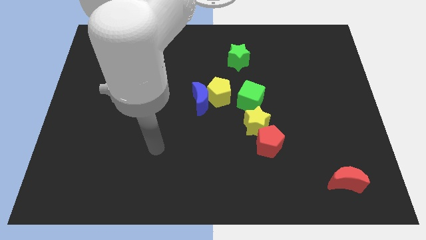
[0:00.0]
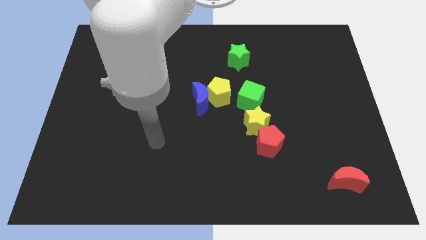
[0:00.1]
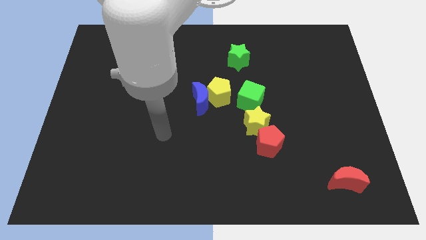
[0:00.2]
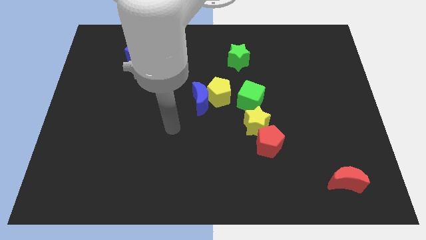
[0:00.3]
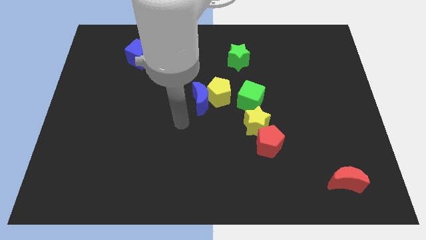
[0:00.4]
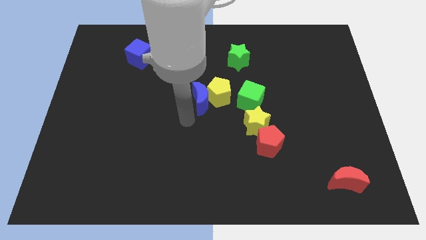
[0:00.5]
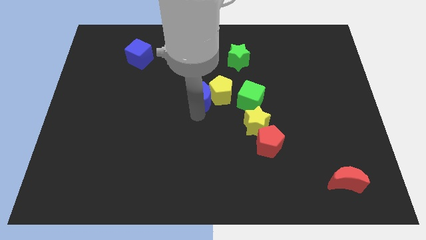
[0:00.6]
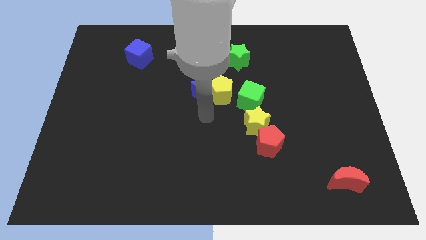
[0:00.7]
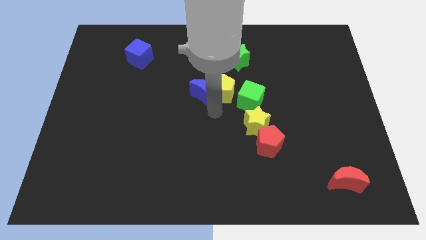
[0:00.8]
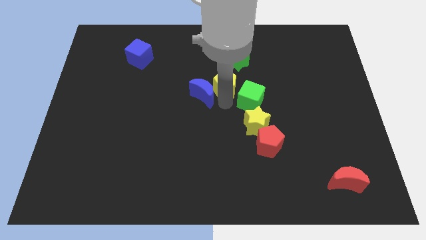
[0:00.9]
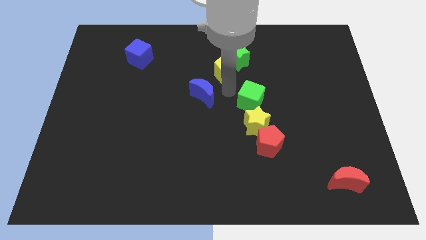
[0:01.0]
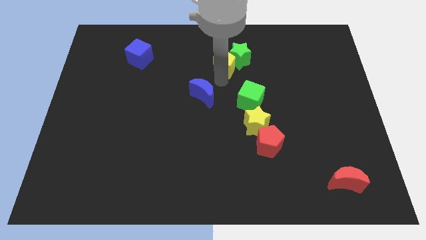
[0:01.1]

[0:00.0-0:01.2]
move the blue moon away from the yellow pentagon

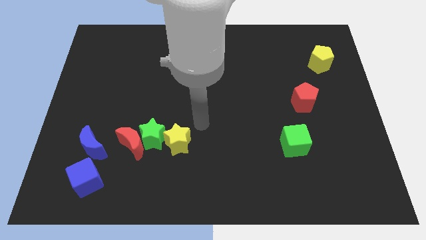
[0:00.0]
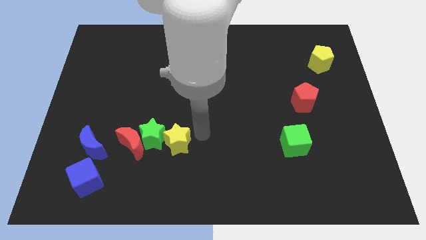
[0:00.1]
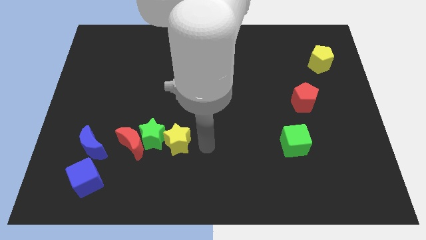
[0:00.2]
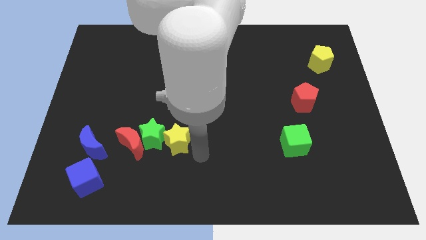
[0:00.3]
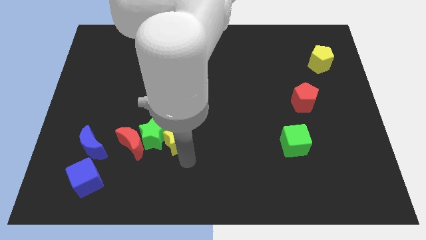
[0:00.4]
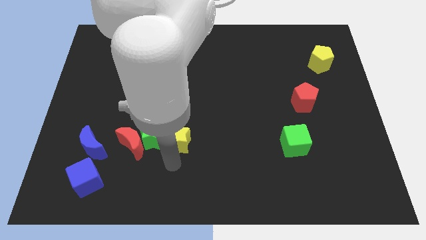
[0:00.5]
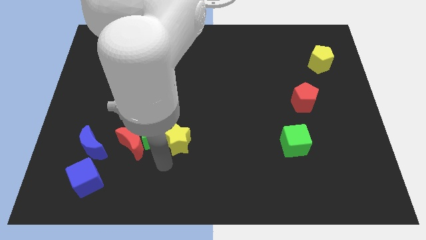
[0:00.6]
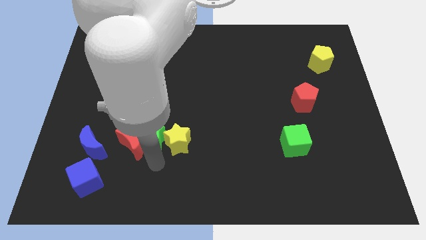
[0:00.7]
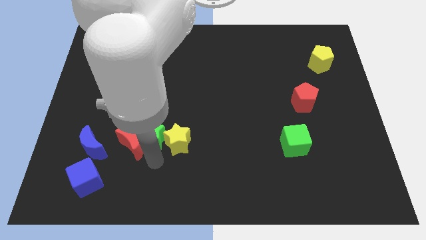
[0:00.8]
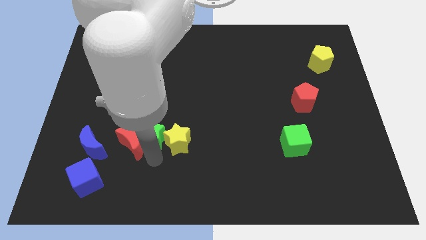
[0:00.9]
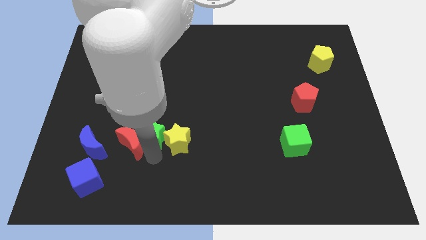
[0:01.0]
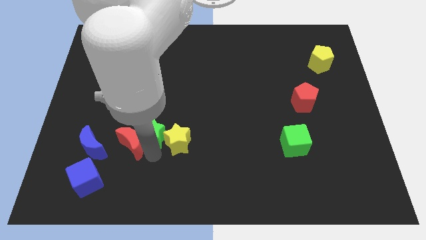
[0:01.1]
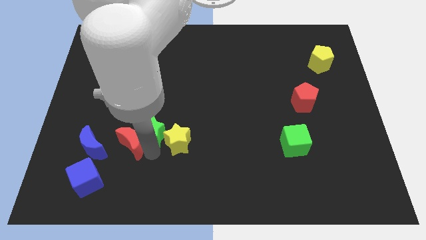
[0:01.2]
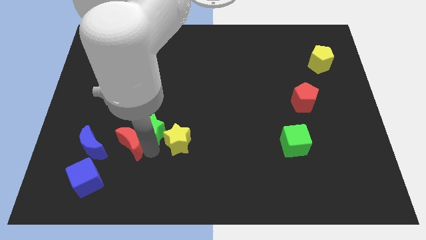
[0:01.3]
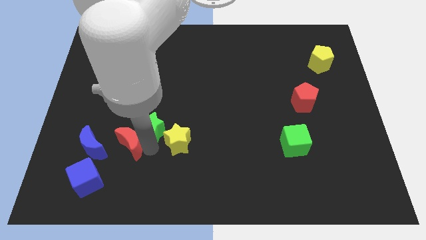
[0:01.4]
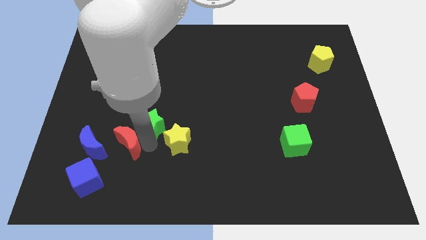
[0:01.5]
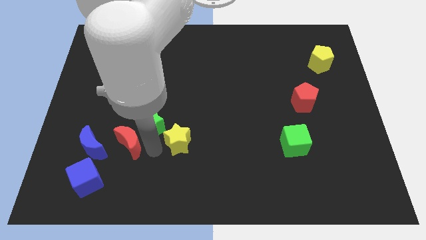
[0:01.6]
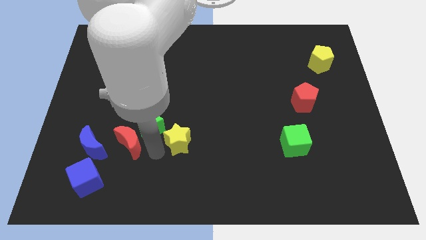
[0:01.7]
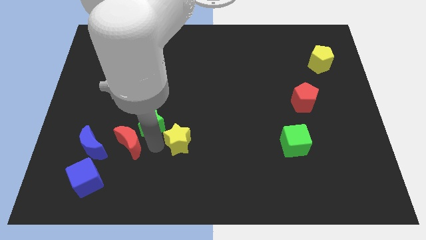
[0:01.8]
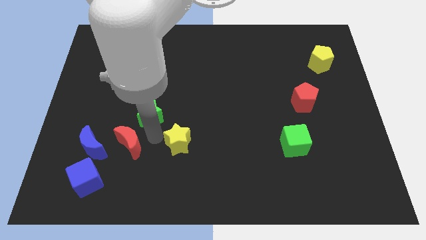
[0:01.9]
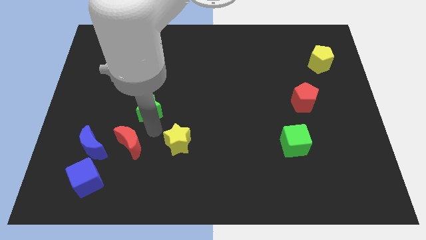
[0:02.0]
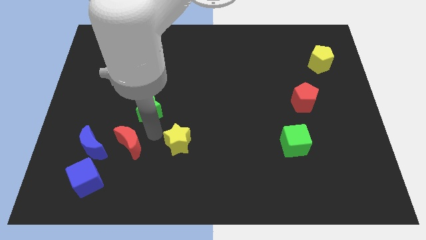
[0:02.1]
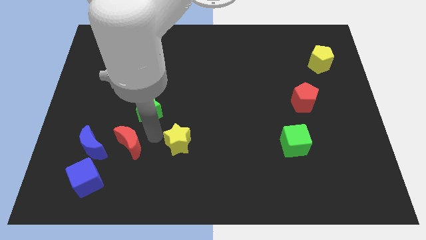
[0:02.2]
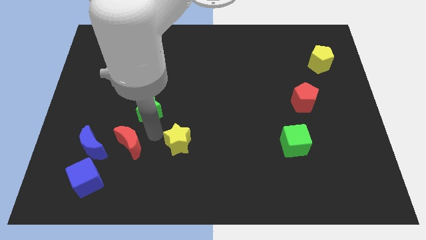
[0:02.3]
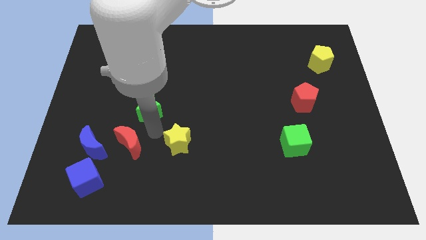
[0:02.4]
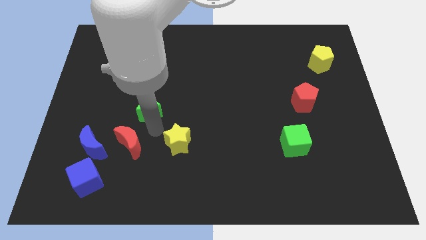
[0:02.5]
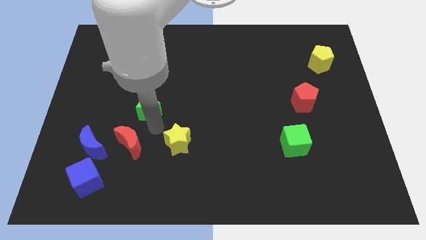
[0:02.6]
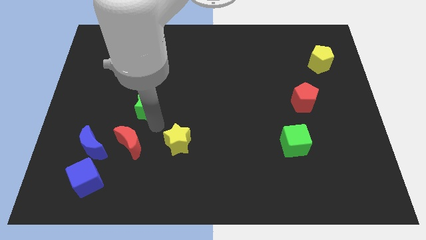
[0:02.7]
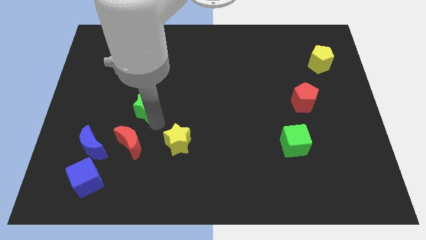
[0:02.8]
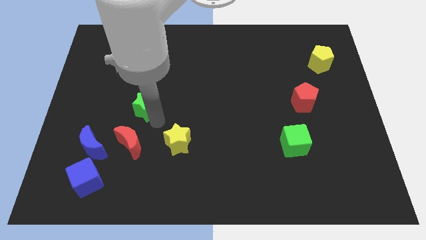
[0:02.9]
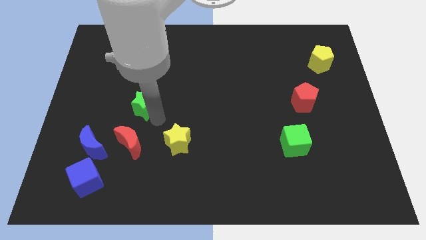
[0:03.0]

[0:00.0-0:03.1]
separate the green star from the red moon and yellow star

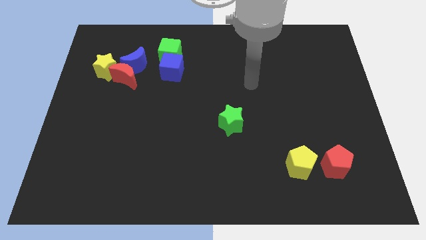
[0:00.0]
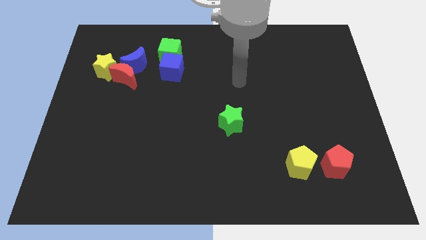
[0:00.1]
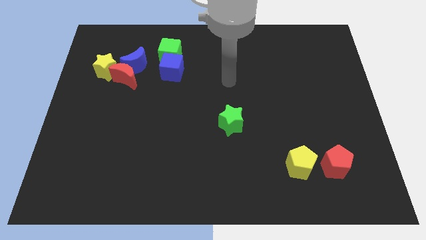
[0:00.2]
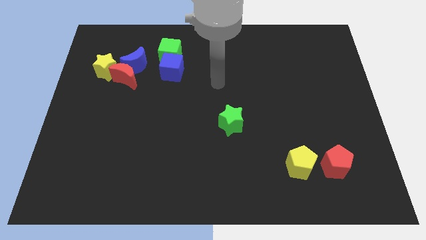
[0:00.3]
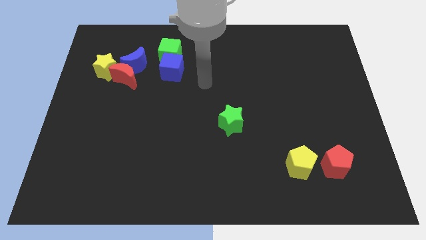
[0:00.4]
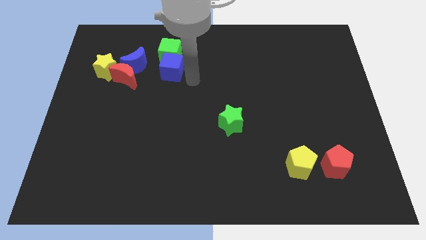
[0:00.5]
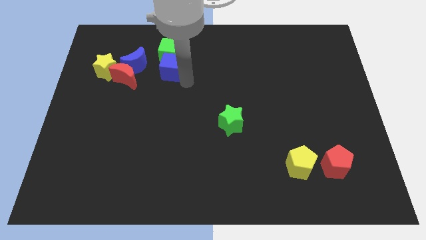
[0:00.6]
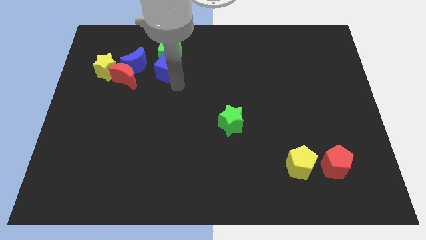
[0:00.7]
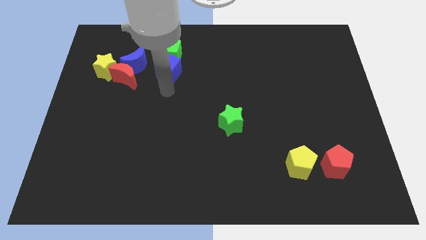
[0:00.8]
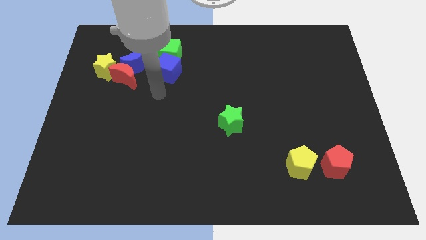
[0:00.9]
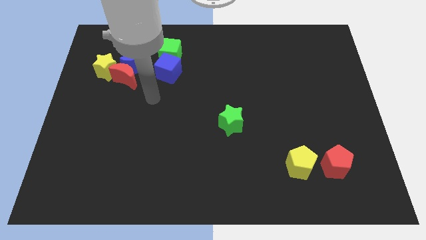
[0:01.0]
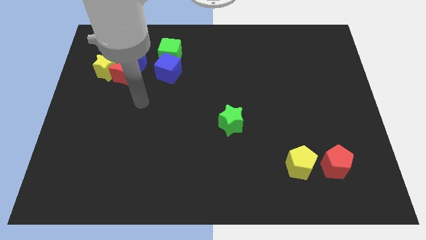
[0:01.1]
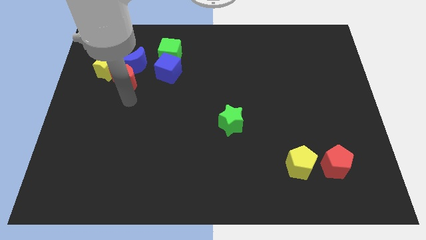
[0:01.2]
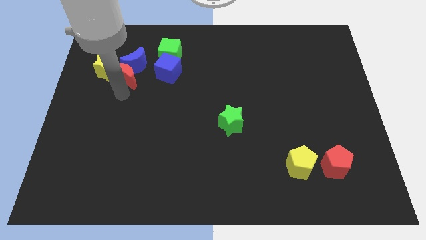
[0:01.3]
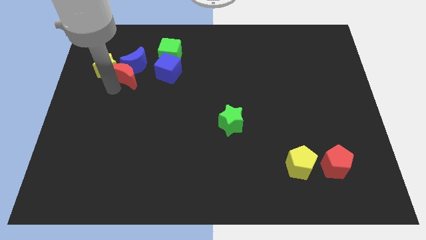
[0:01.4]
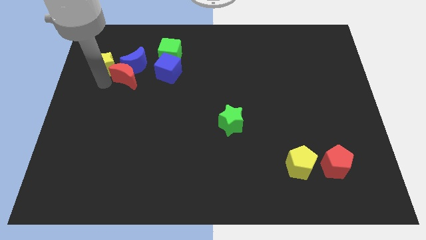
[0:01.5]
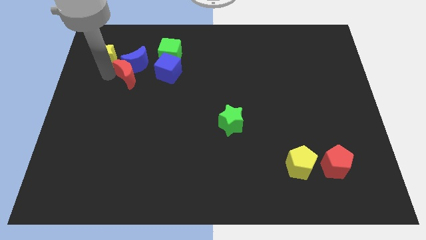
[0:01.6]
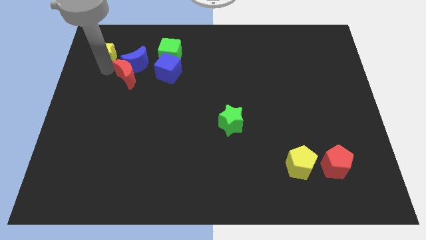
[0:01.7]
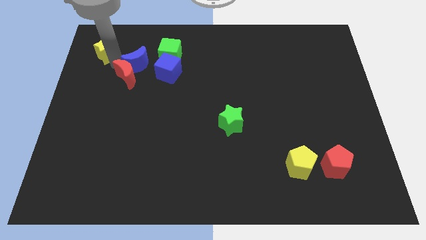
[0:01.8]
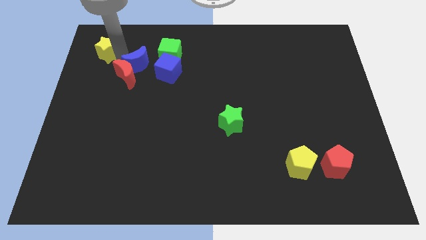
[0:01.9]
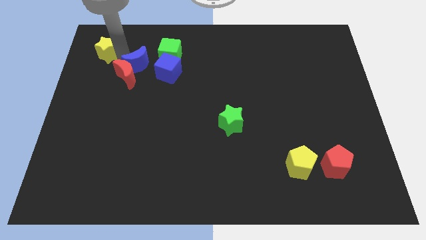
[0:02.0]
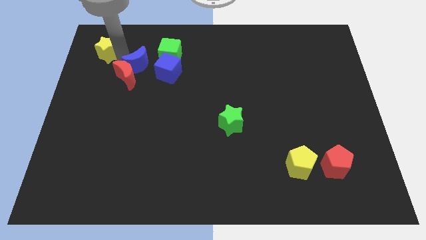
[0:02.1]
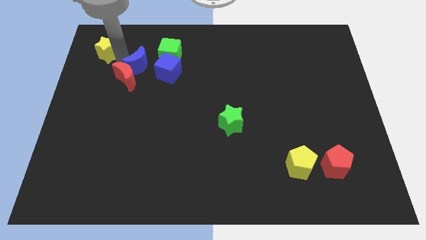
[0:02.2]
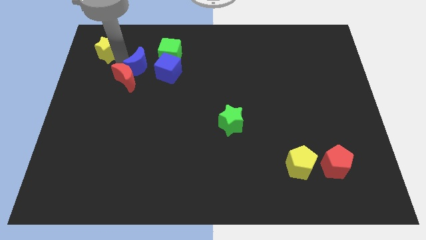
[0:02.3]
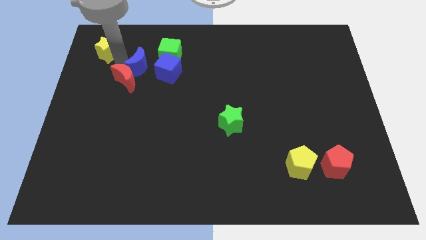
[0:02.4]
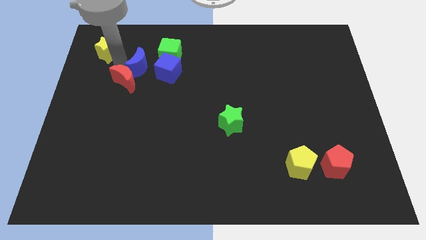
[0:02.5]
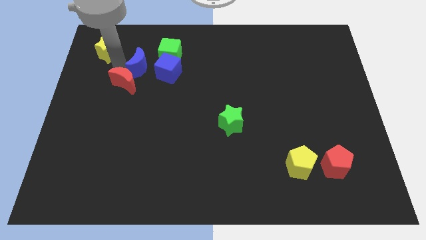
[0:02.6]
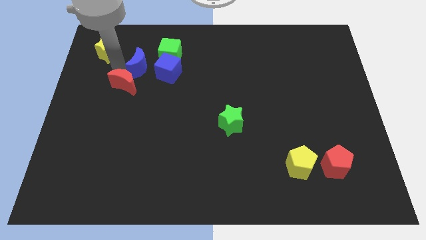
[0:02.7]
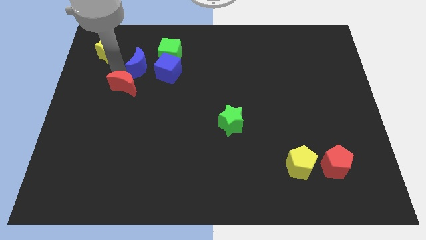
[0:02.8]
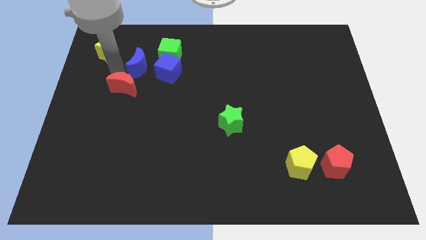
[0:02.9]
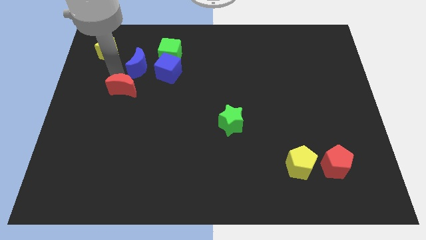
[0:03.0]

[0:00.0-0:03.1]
move the red moon away from the blue moon and yellow star

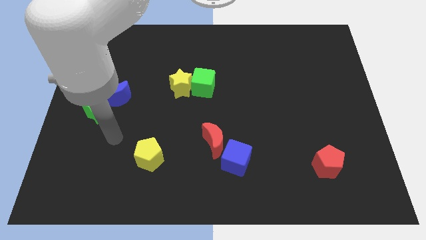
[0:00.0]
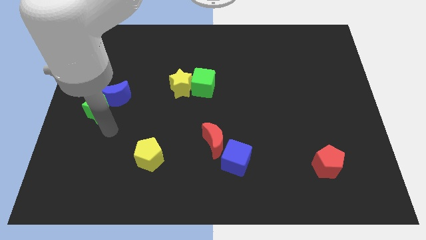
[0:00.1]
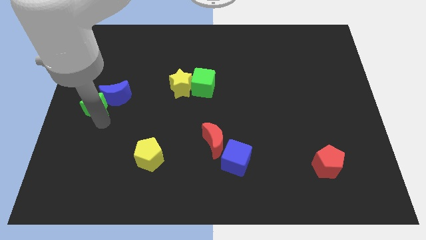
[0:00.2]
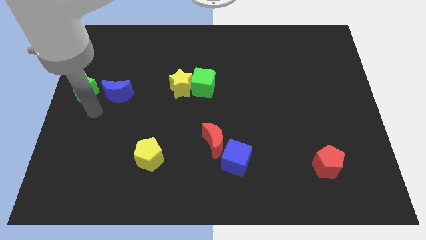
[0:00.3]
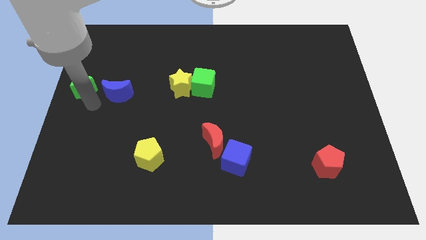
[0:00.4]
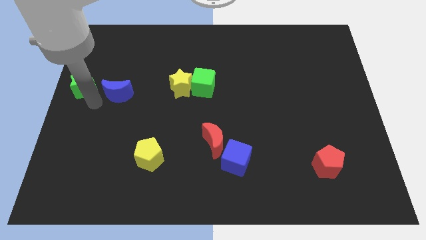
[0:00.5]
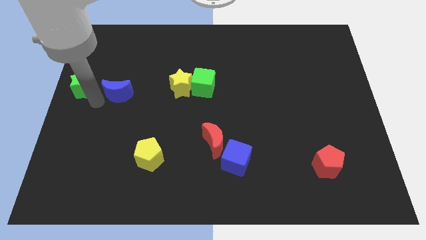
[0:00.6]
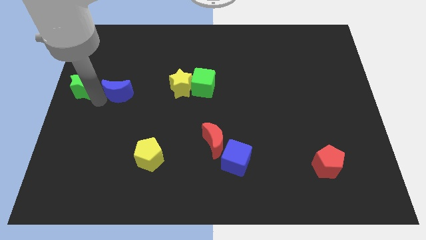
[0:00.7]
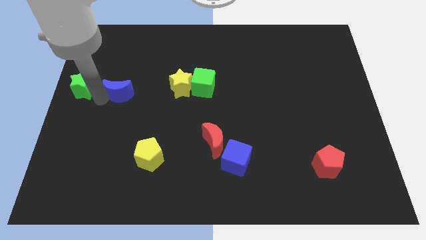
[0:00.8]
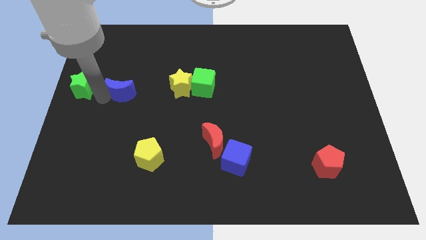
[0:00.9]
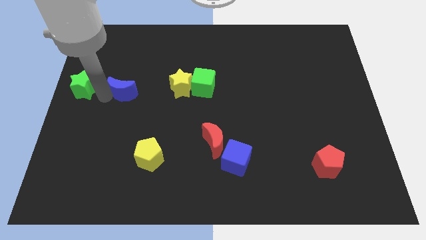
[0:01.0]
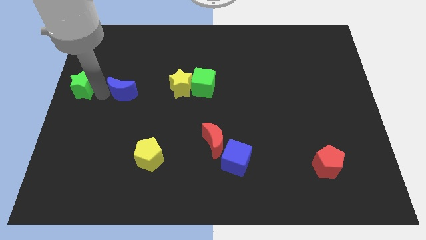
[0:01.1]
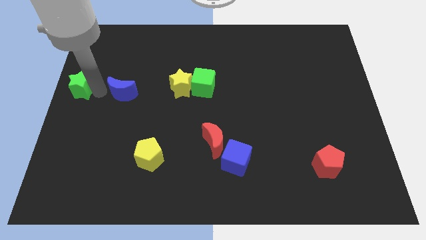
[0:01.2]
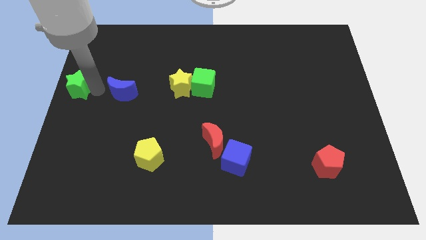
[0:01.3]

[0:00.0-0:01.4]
pull the blue moon apart from the green star

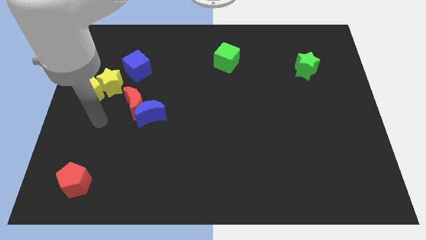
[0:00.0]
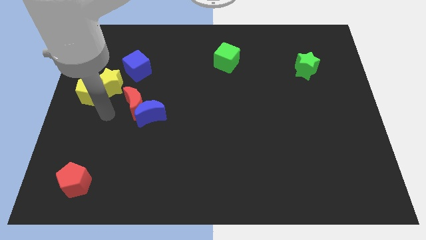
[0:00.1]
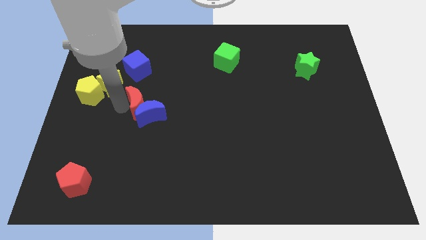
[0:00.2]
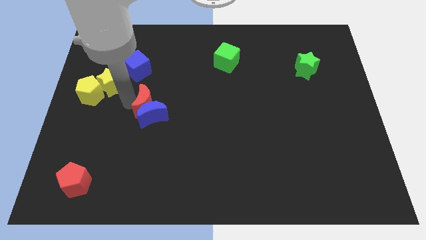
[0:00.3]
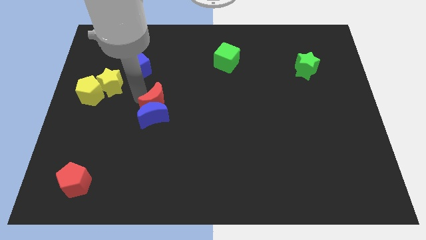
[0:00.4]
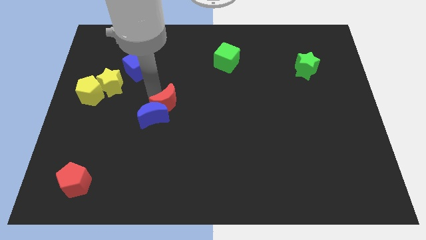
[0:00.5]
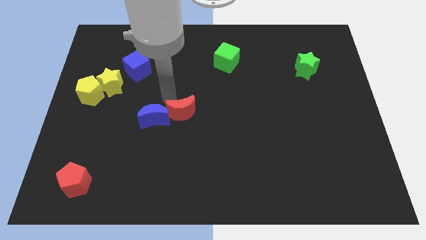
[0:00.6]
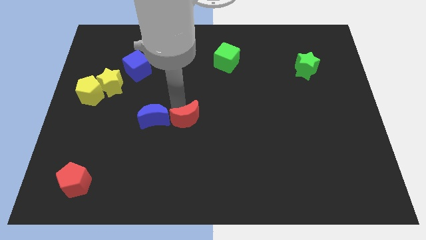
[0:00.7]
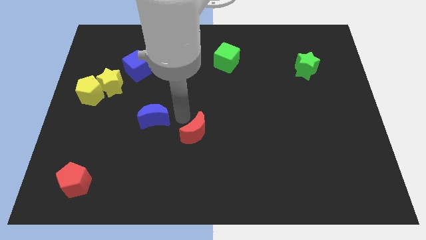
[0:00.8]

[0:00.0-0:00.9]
pull the blue moon apart from the red moon
